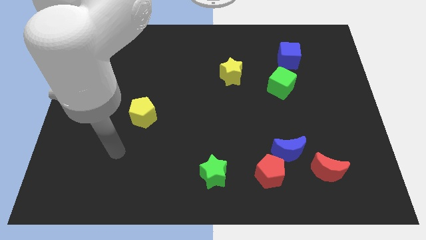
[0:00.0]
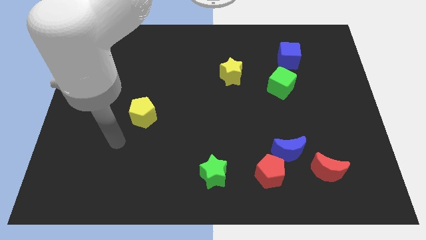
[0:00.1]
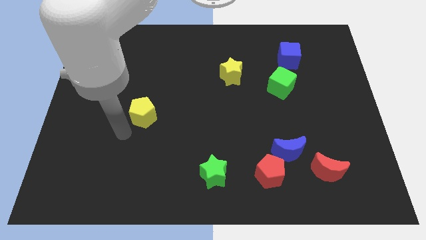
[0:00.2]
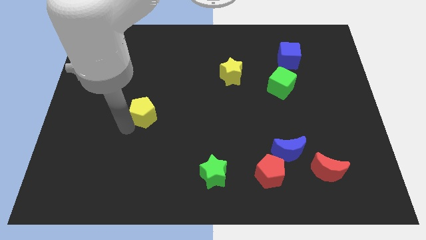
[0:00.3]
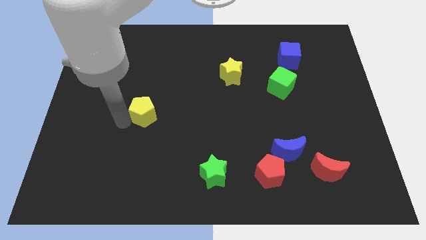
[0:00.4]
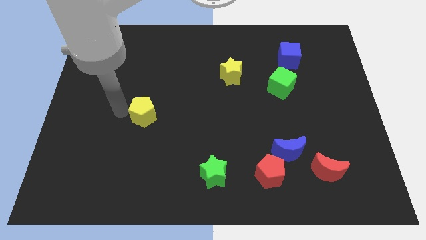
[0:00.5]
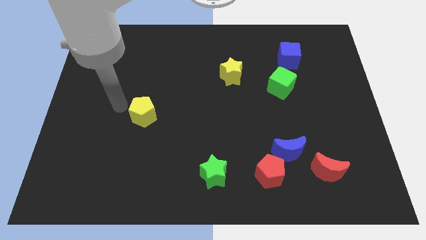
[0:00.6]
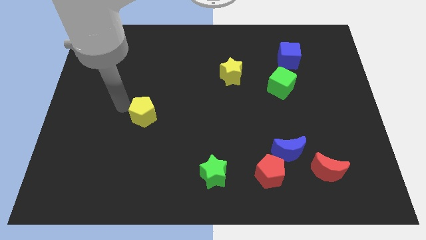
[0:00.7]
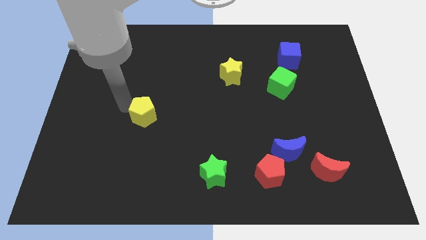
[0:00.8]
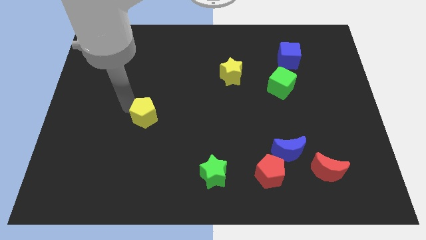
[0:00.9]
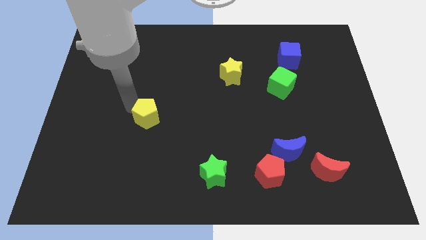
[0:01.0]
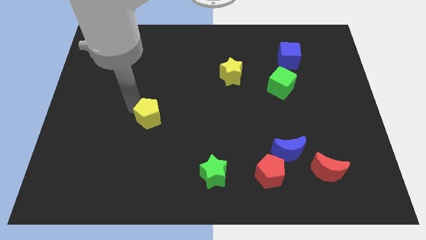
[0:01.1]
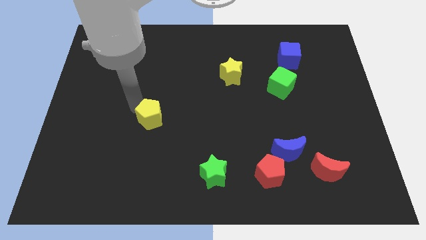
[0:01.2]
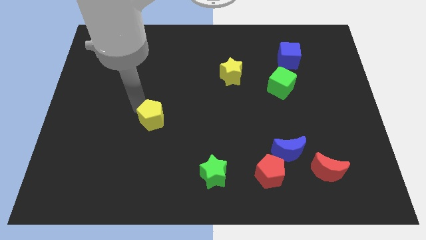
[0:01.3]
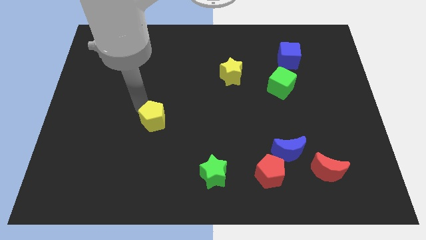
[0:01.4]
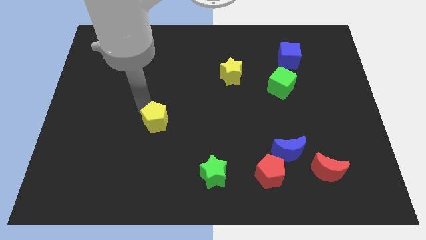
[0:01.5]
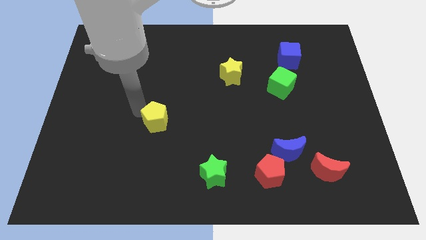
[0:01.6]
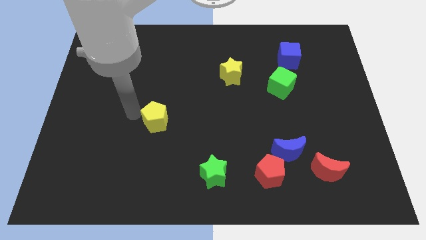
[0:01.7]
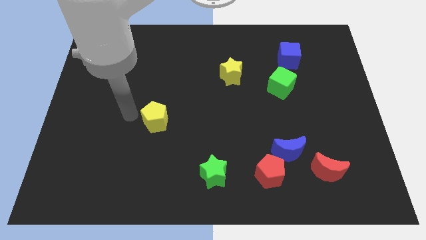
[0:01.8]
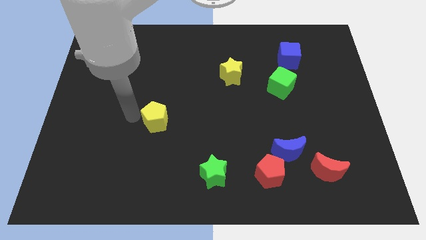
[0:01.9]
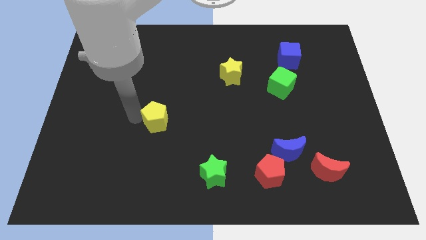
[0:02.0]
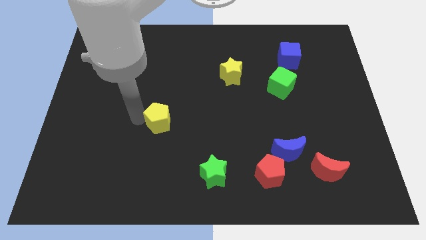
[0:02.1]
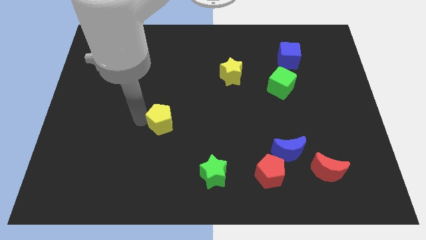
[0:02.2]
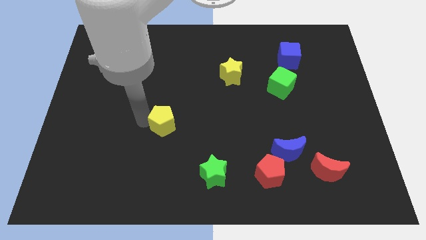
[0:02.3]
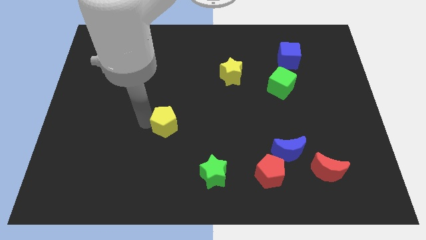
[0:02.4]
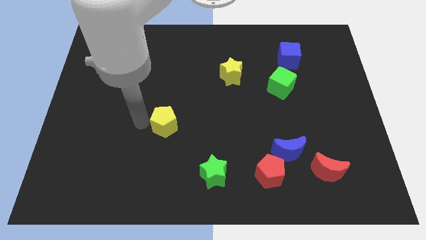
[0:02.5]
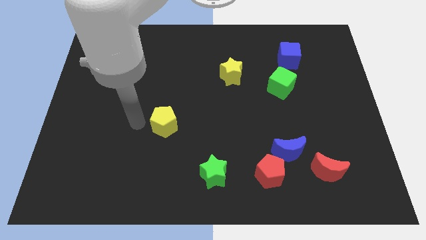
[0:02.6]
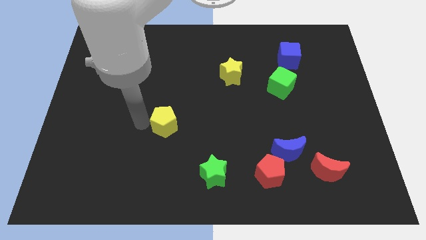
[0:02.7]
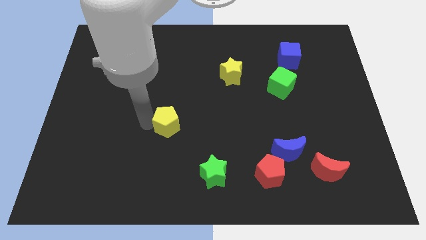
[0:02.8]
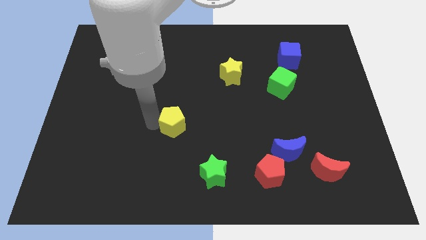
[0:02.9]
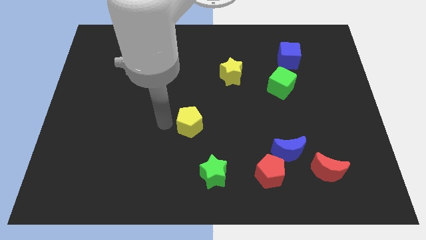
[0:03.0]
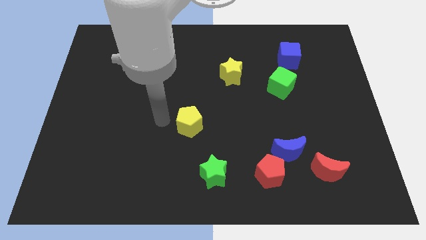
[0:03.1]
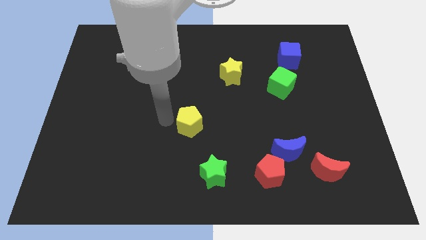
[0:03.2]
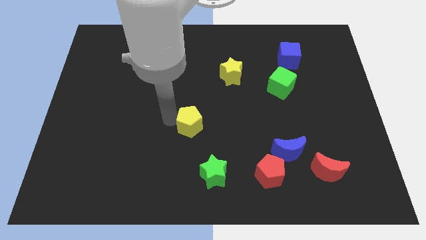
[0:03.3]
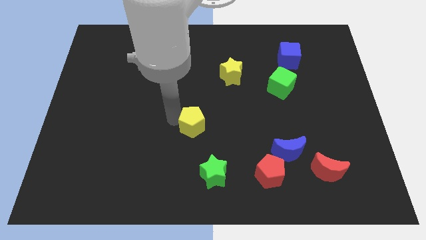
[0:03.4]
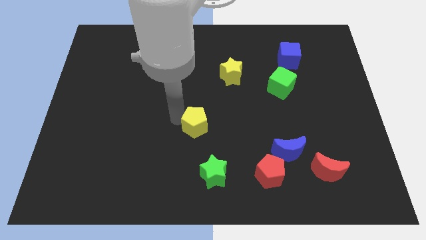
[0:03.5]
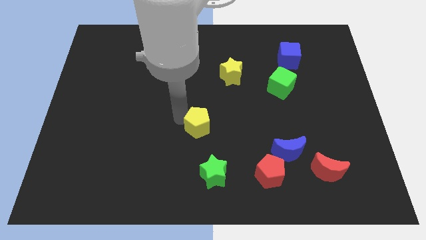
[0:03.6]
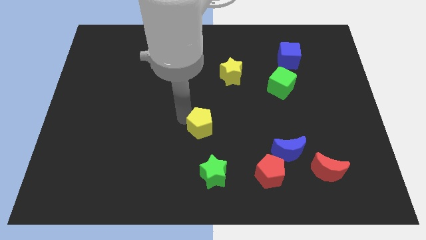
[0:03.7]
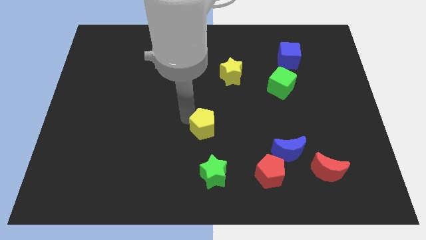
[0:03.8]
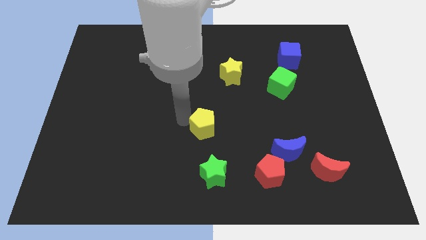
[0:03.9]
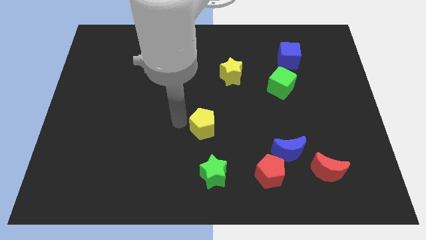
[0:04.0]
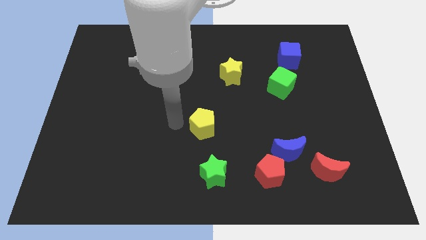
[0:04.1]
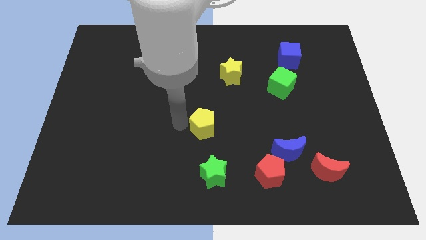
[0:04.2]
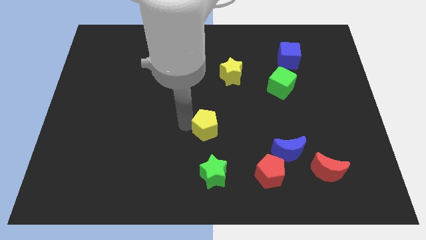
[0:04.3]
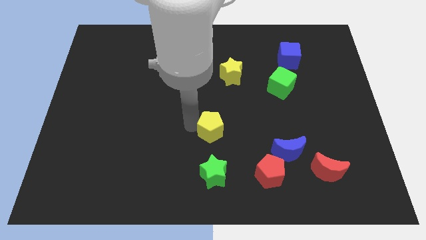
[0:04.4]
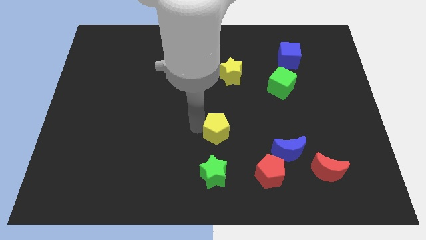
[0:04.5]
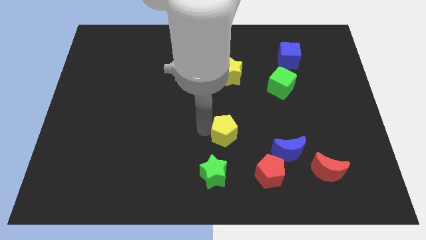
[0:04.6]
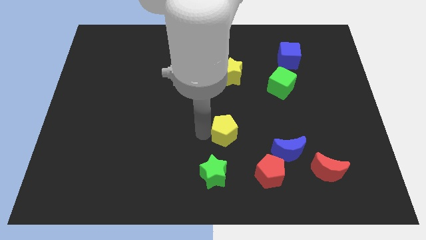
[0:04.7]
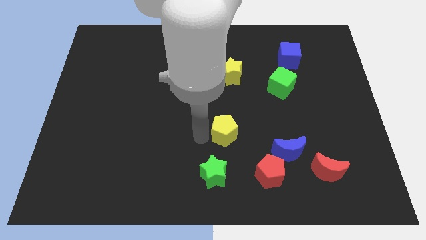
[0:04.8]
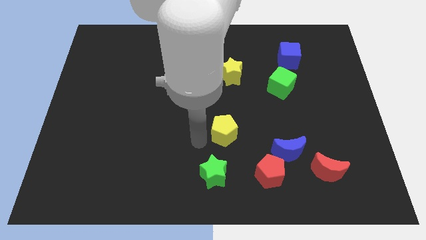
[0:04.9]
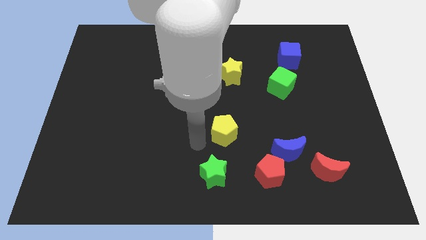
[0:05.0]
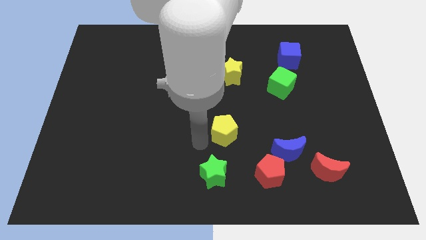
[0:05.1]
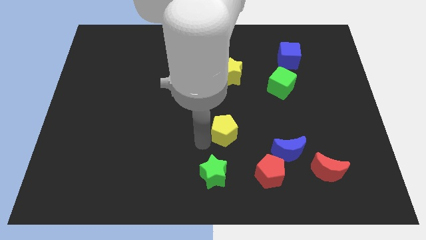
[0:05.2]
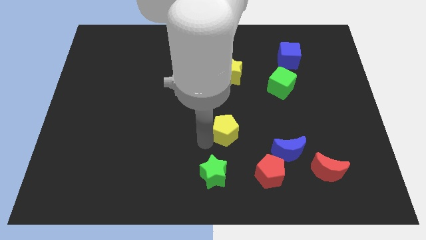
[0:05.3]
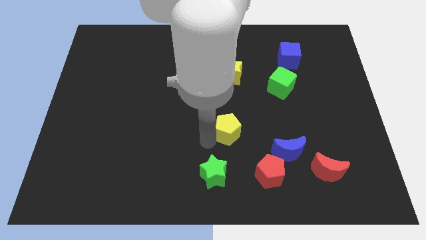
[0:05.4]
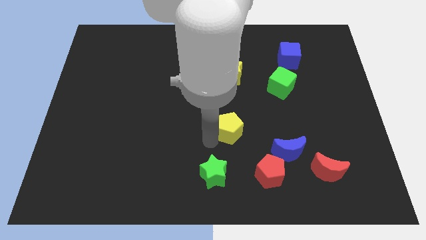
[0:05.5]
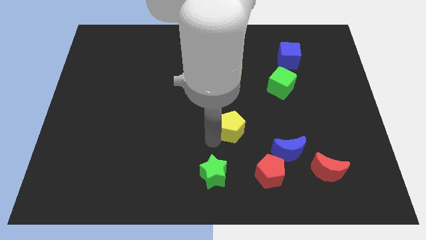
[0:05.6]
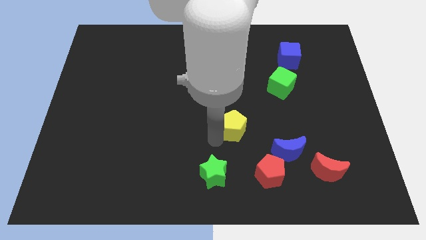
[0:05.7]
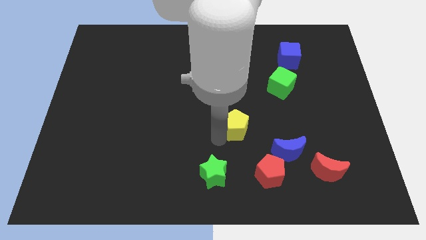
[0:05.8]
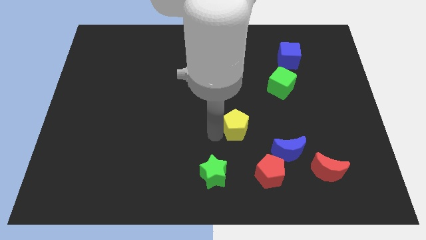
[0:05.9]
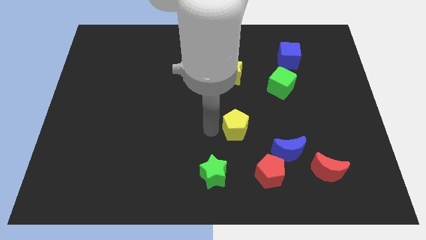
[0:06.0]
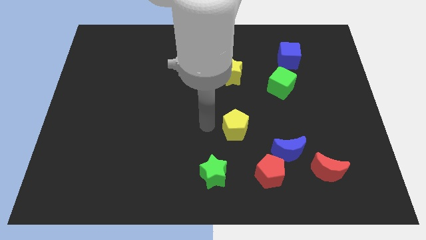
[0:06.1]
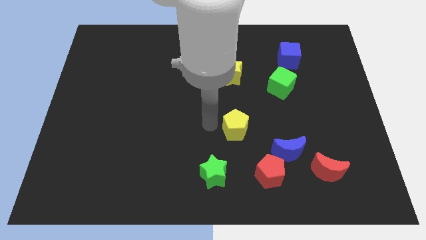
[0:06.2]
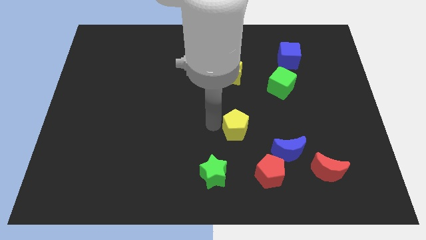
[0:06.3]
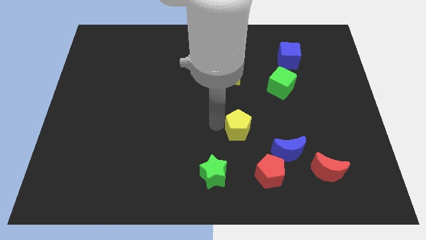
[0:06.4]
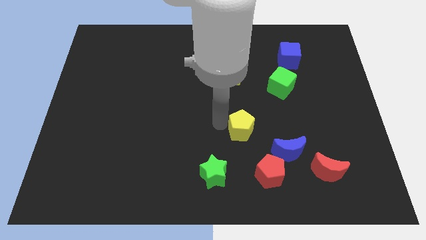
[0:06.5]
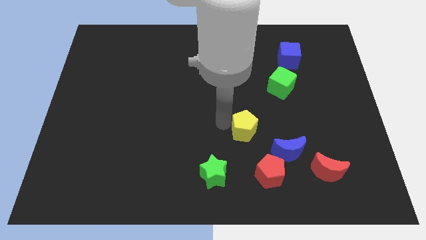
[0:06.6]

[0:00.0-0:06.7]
slide the yellow pentagon to the top of the red pentagon
